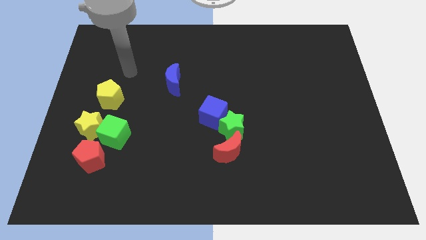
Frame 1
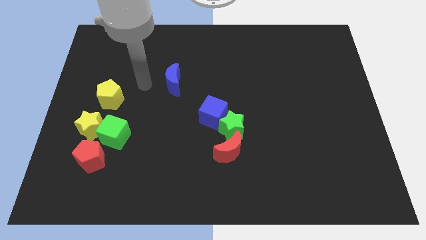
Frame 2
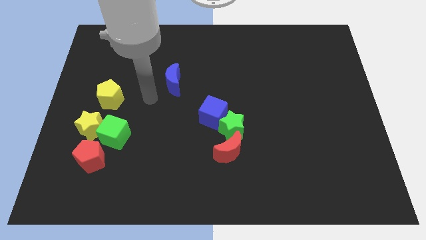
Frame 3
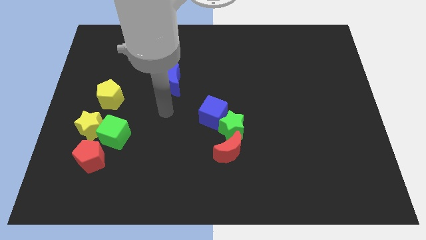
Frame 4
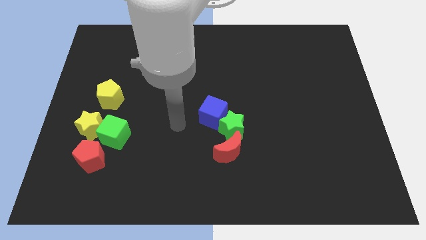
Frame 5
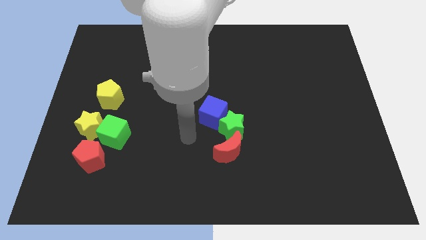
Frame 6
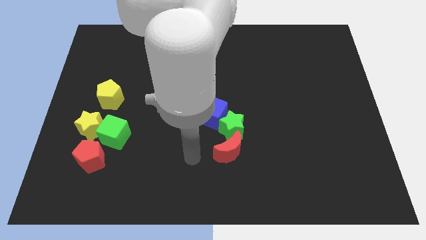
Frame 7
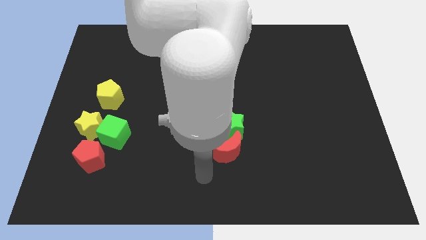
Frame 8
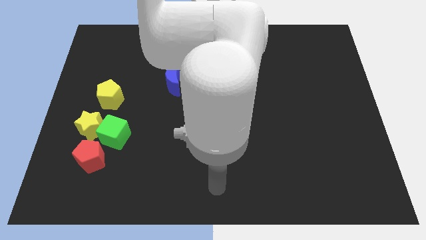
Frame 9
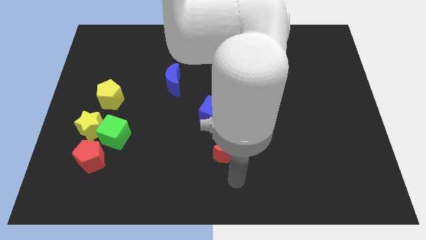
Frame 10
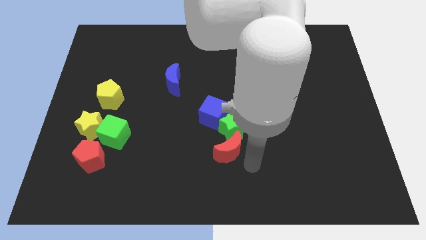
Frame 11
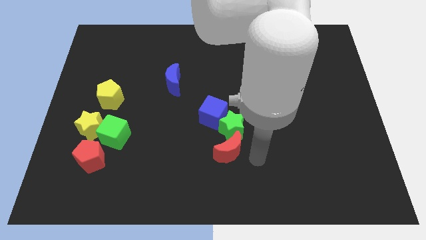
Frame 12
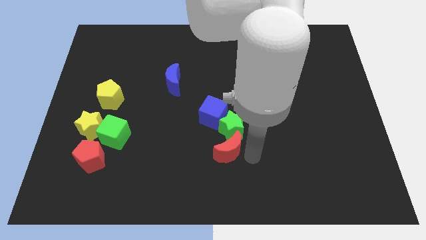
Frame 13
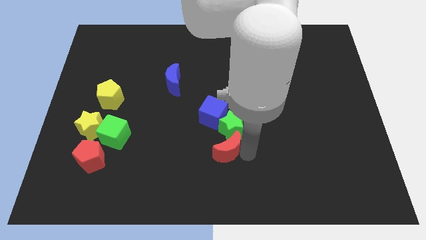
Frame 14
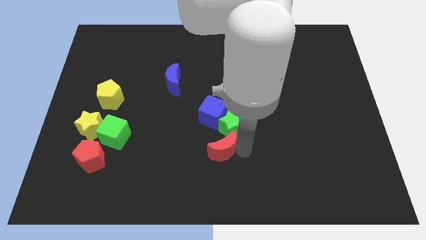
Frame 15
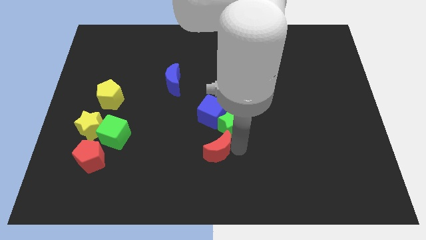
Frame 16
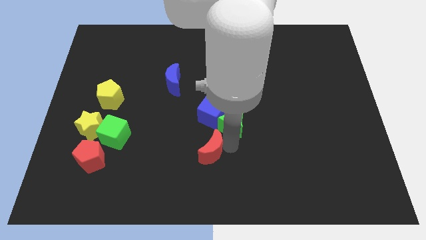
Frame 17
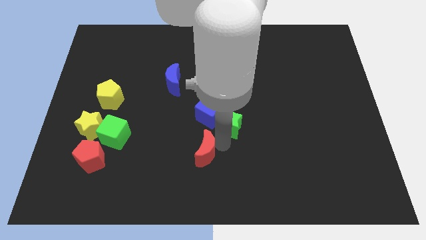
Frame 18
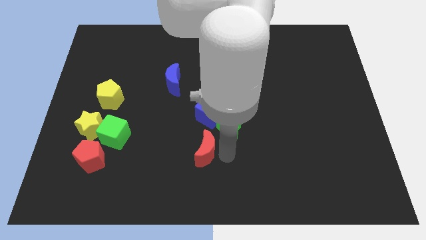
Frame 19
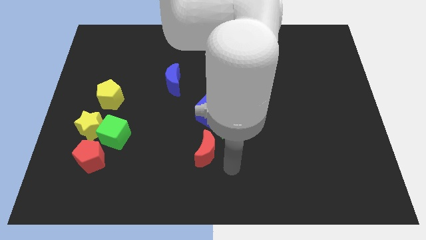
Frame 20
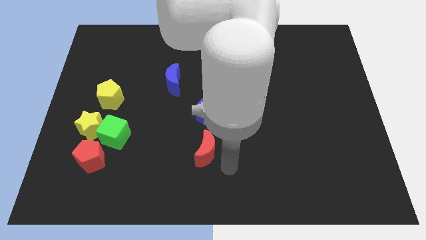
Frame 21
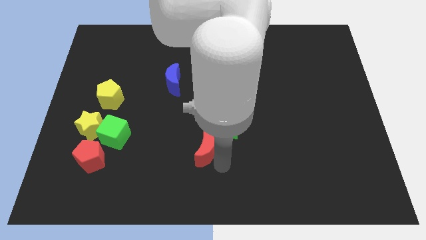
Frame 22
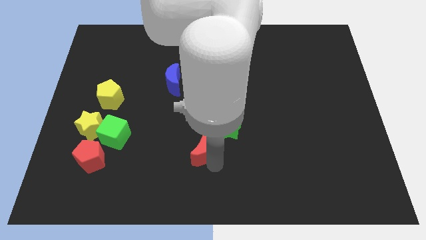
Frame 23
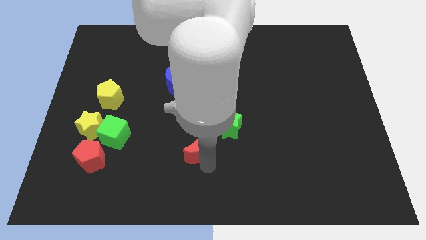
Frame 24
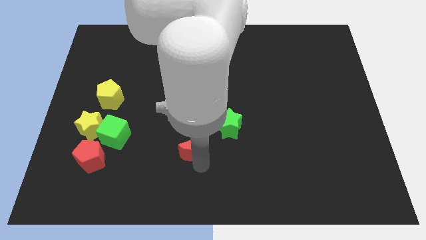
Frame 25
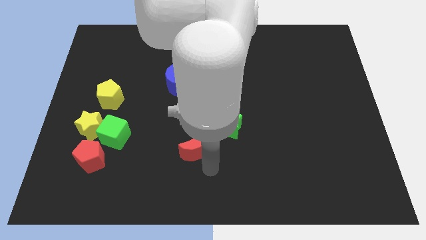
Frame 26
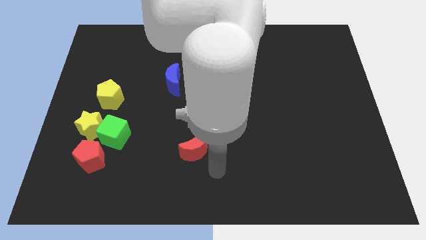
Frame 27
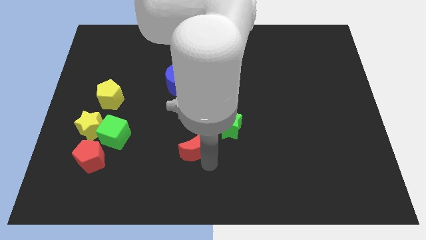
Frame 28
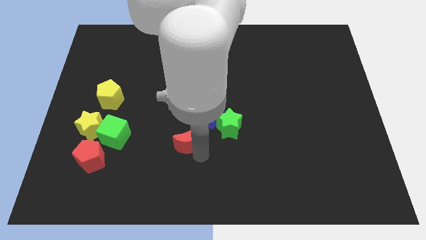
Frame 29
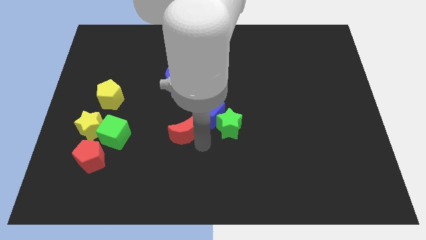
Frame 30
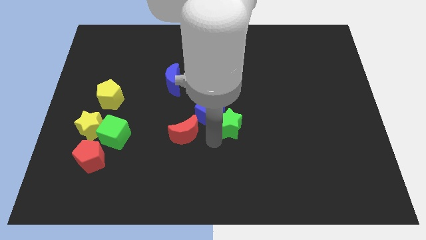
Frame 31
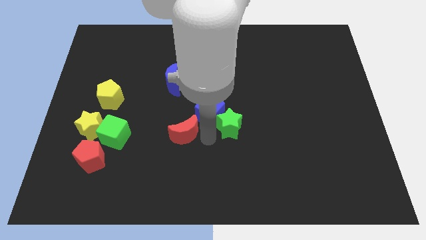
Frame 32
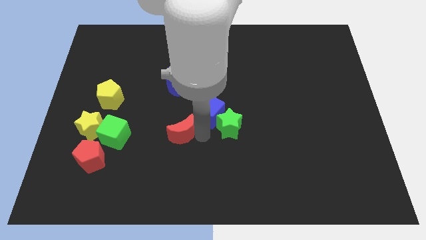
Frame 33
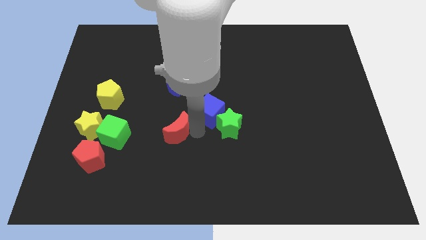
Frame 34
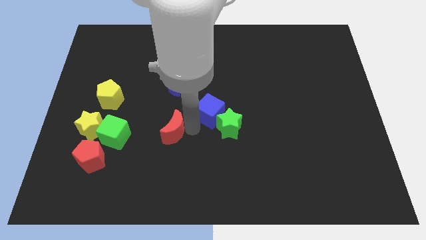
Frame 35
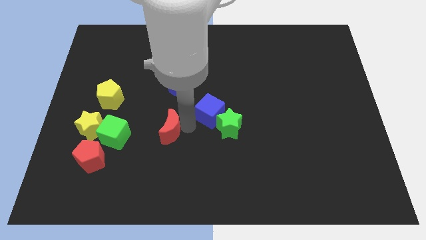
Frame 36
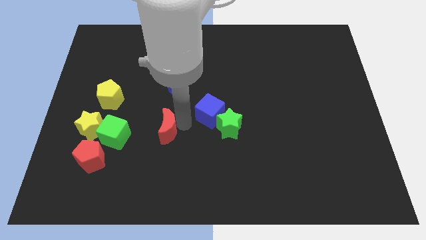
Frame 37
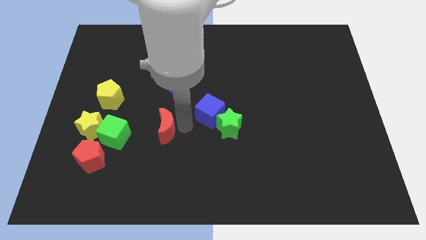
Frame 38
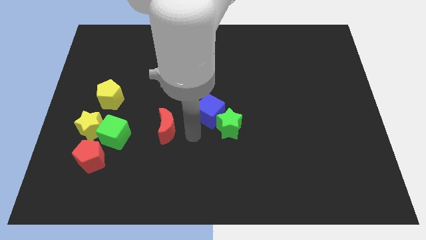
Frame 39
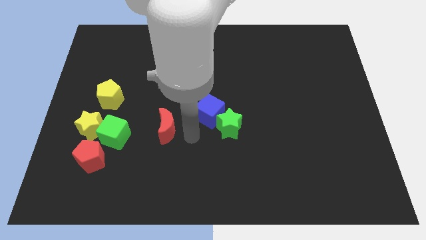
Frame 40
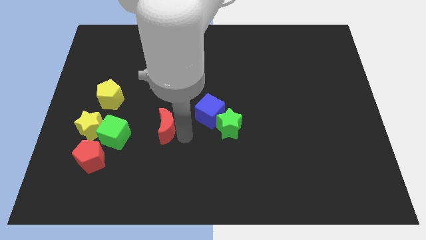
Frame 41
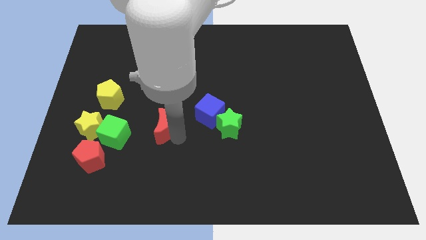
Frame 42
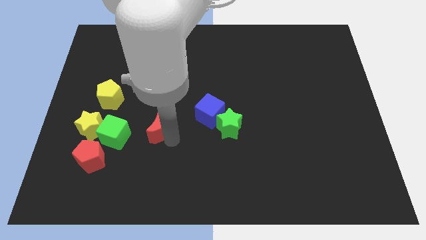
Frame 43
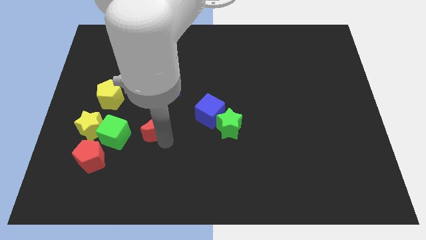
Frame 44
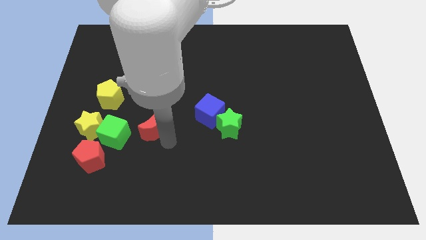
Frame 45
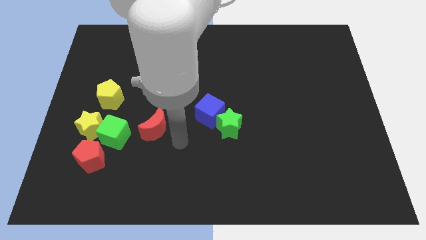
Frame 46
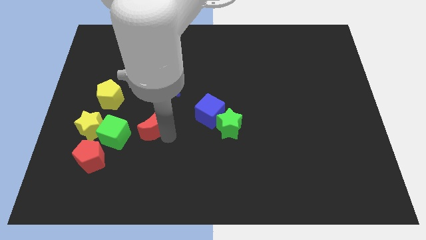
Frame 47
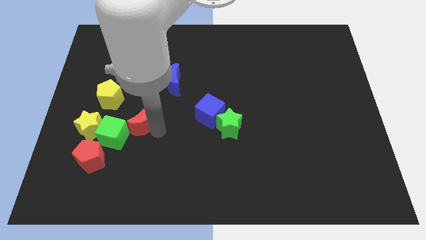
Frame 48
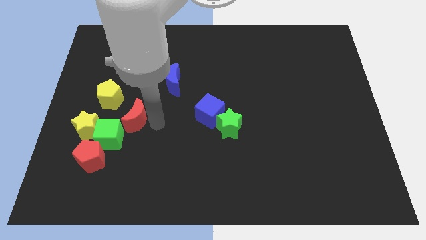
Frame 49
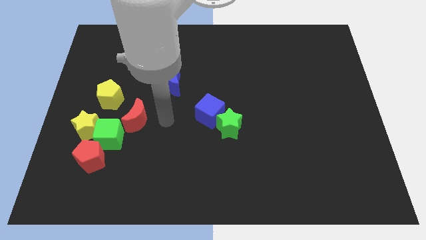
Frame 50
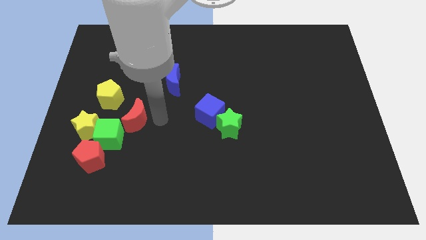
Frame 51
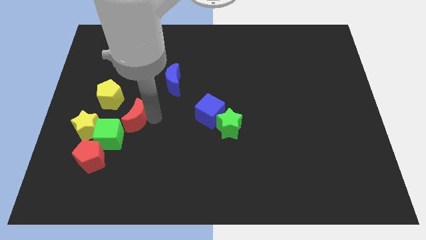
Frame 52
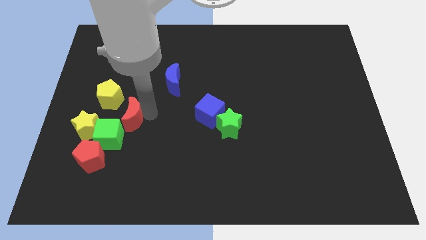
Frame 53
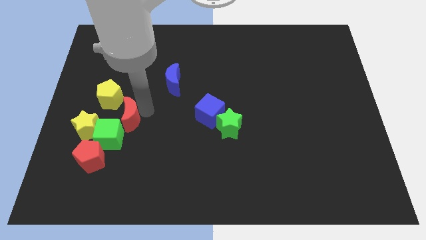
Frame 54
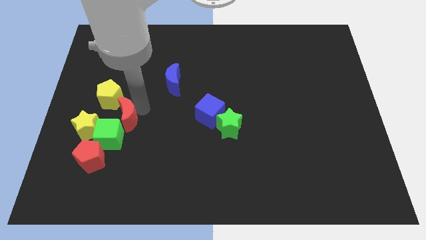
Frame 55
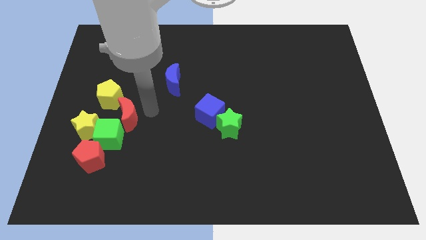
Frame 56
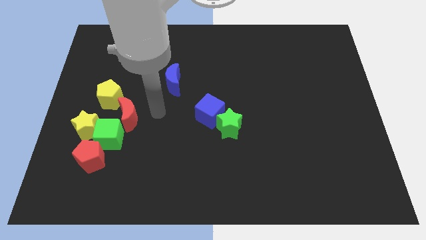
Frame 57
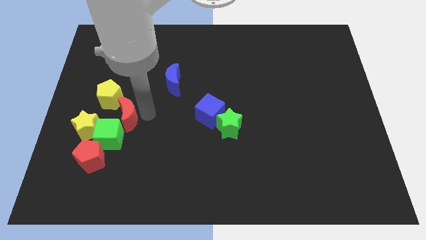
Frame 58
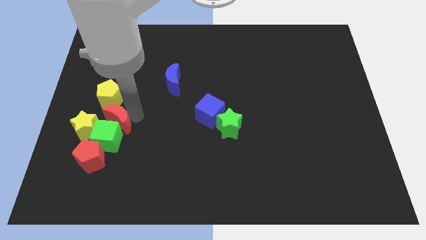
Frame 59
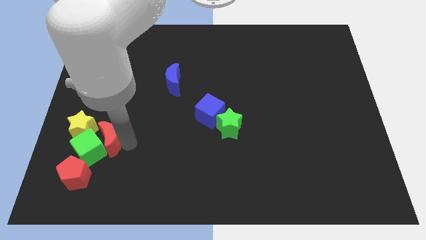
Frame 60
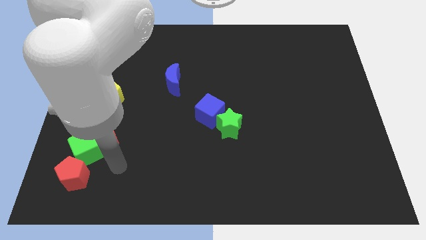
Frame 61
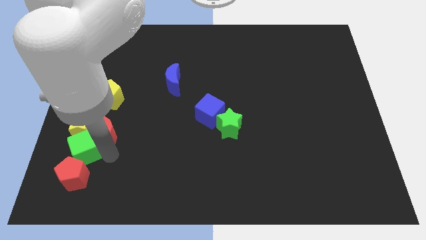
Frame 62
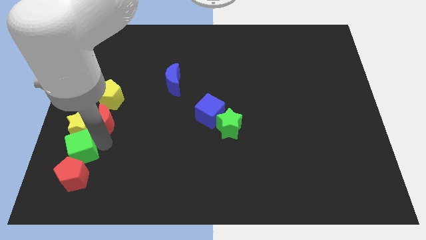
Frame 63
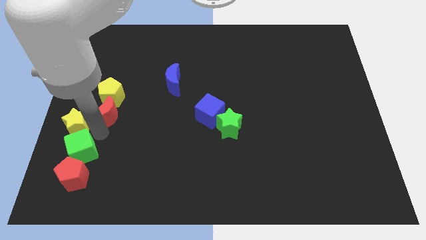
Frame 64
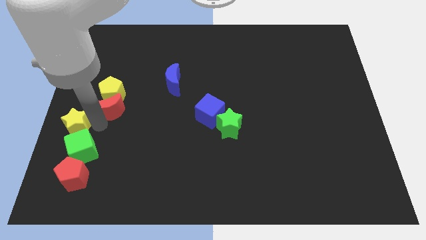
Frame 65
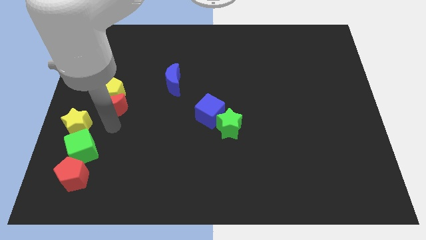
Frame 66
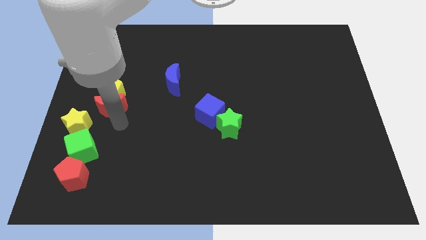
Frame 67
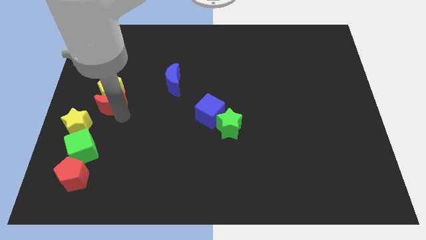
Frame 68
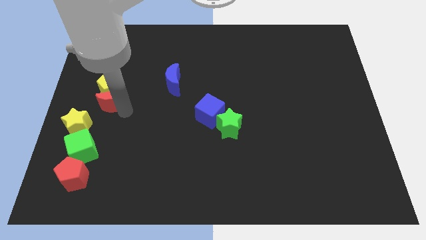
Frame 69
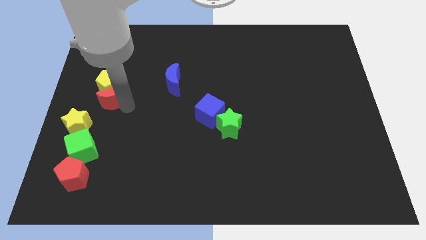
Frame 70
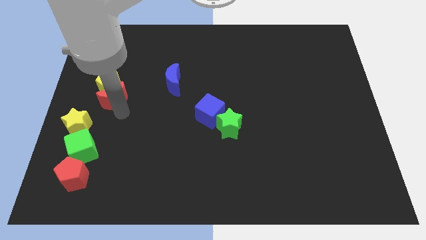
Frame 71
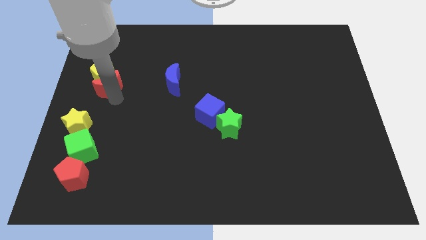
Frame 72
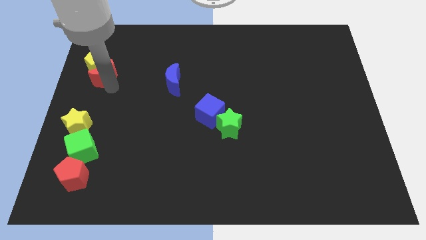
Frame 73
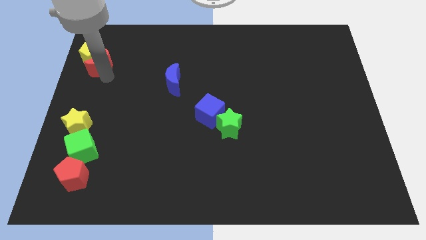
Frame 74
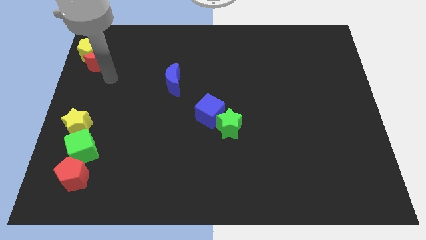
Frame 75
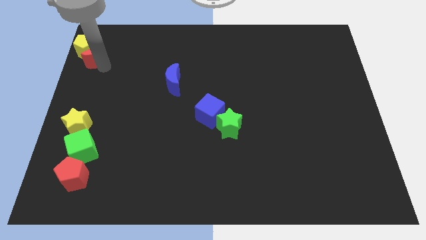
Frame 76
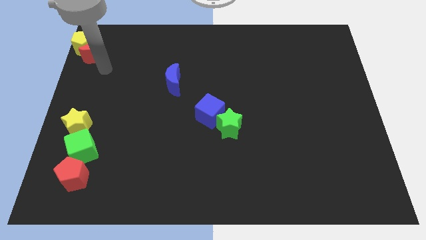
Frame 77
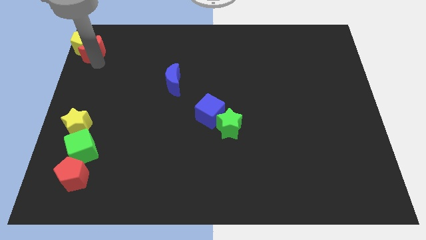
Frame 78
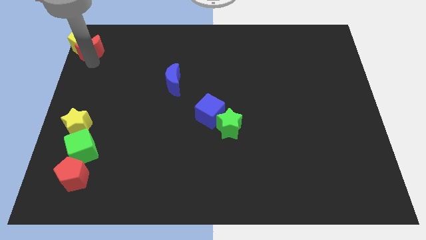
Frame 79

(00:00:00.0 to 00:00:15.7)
move the red moon to the top left
